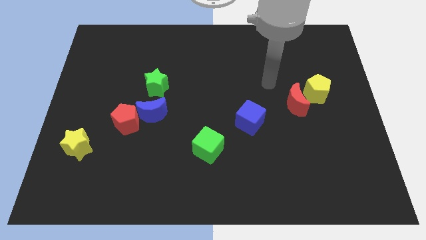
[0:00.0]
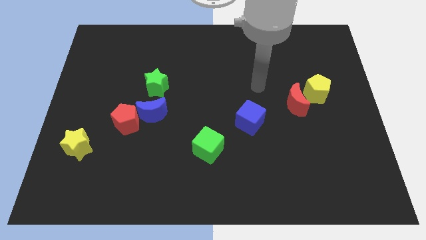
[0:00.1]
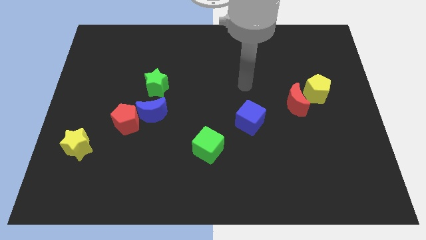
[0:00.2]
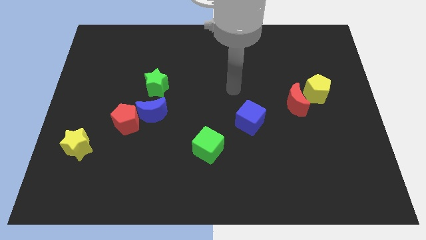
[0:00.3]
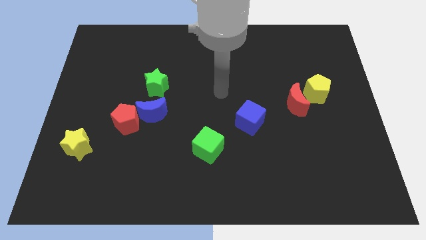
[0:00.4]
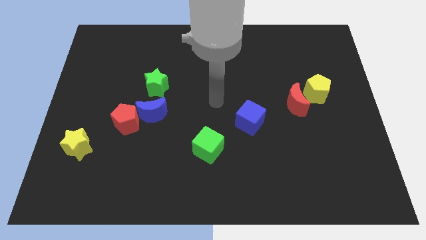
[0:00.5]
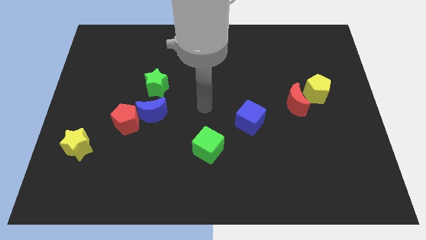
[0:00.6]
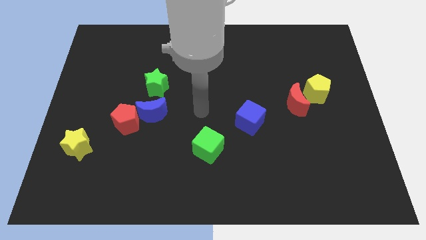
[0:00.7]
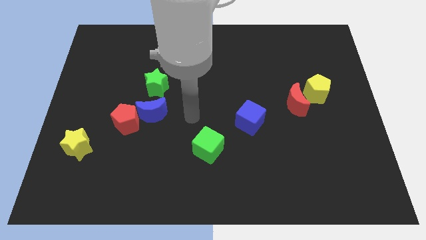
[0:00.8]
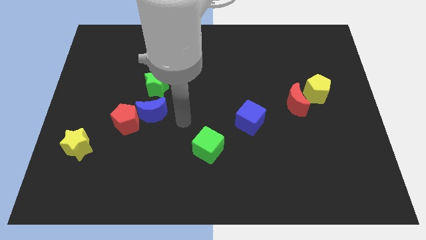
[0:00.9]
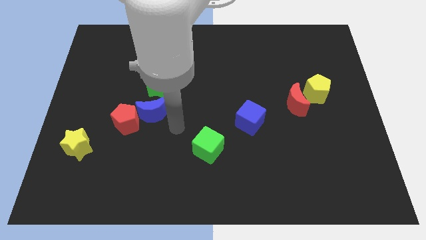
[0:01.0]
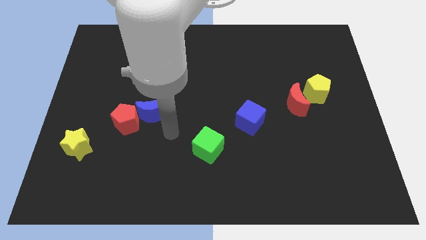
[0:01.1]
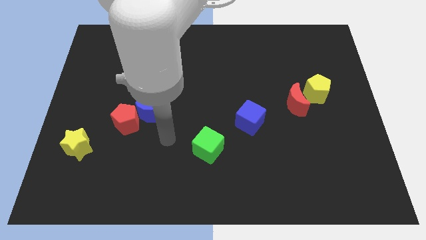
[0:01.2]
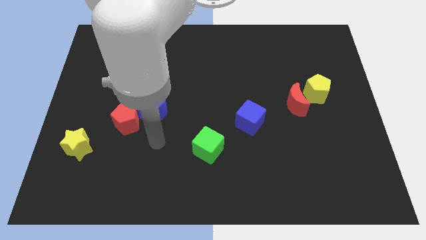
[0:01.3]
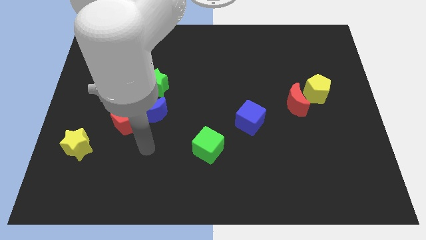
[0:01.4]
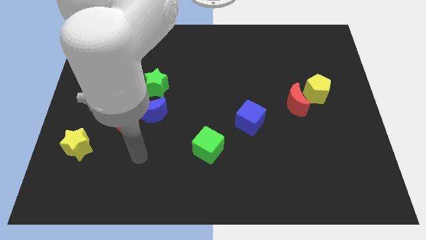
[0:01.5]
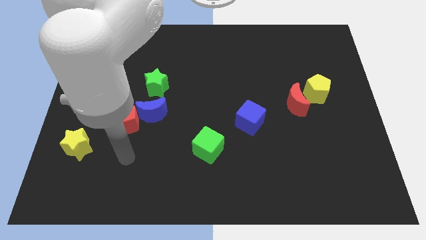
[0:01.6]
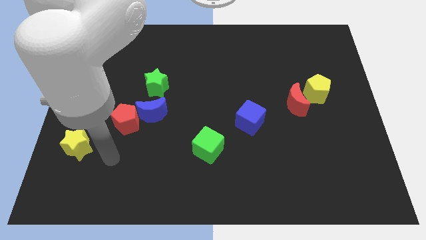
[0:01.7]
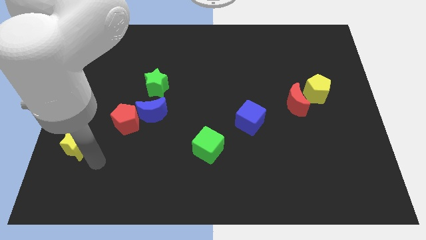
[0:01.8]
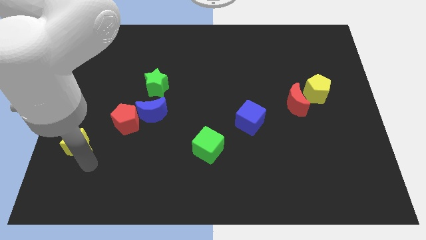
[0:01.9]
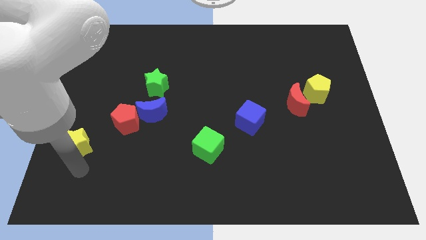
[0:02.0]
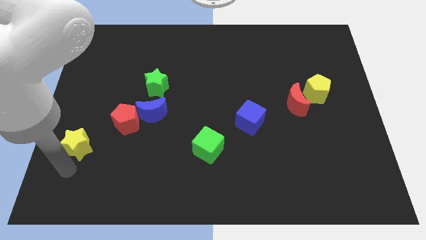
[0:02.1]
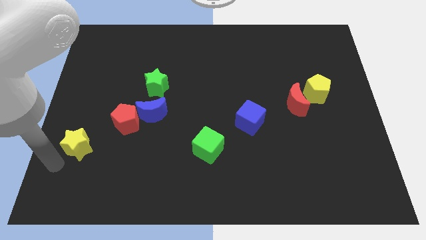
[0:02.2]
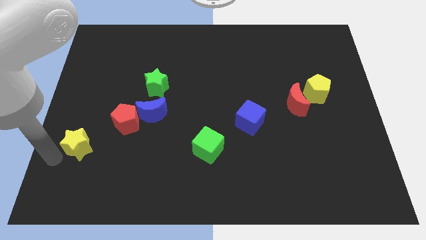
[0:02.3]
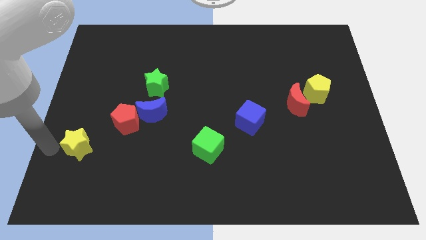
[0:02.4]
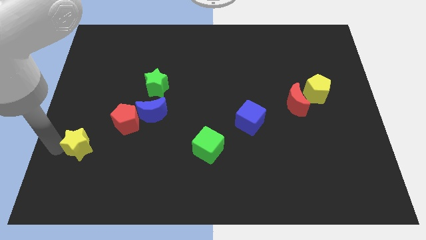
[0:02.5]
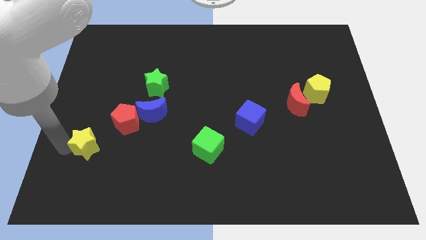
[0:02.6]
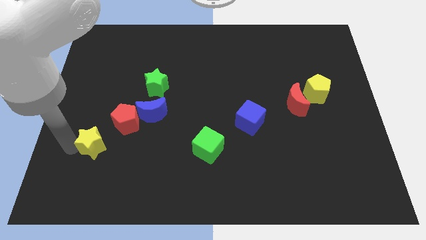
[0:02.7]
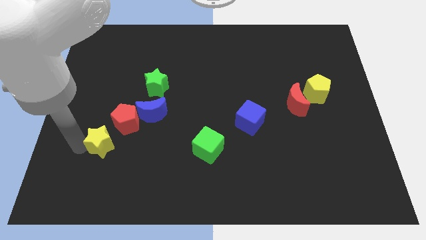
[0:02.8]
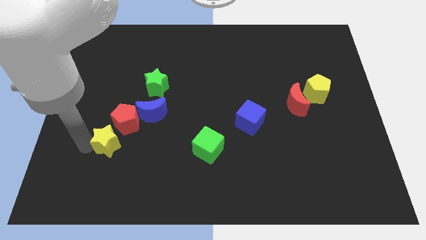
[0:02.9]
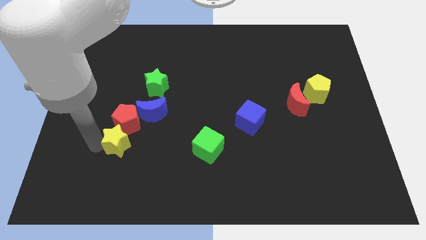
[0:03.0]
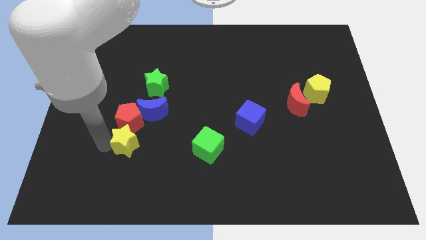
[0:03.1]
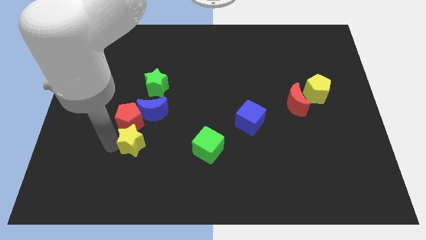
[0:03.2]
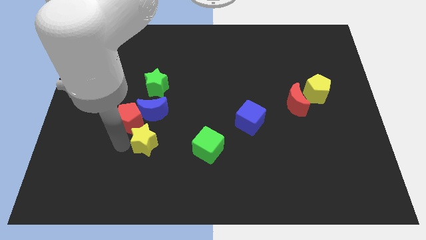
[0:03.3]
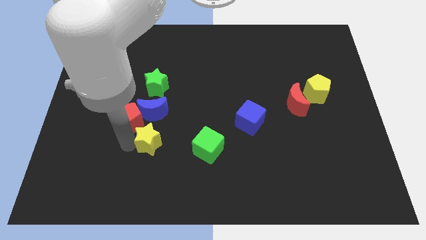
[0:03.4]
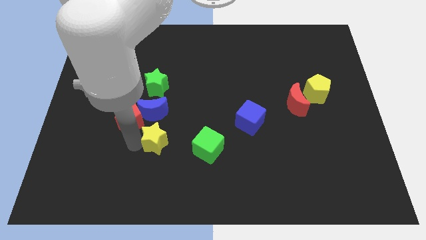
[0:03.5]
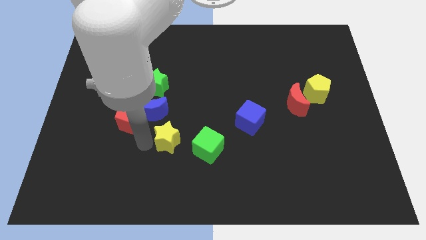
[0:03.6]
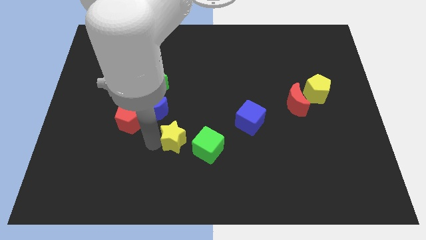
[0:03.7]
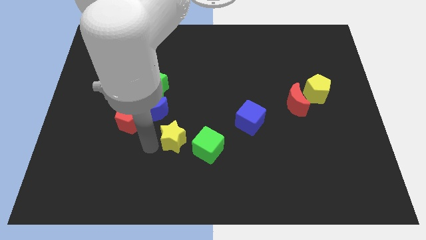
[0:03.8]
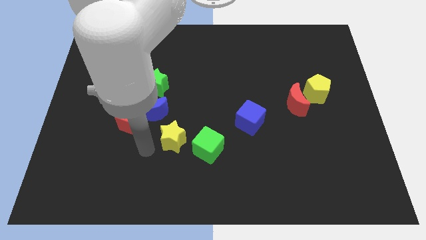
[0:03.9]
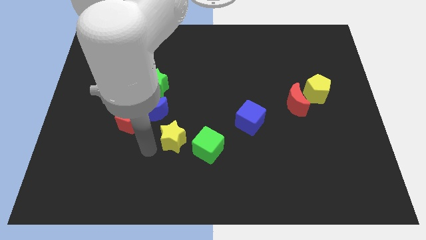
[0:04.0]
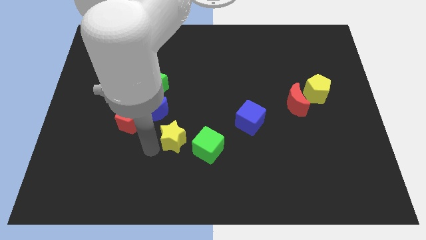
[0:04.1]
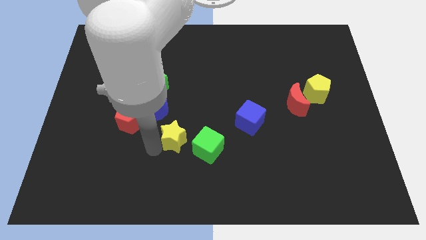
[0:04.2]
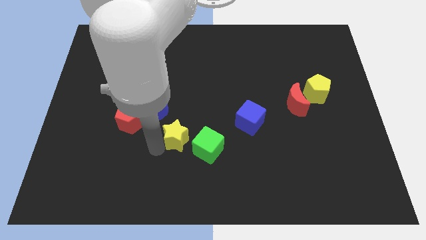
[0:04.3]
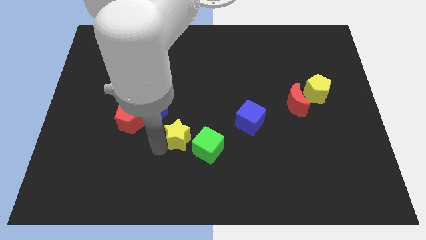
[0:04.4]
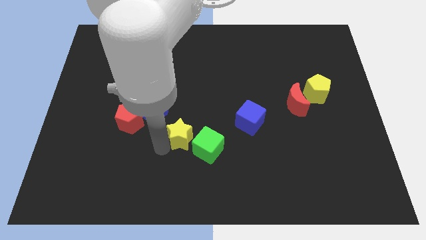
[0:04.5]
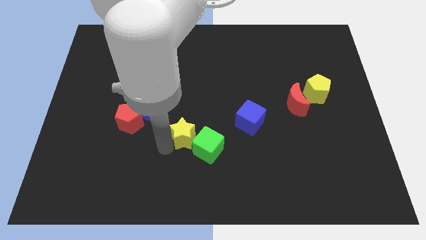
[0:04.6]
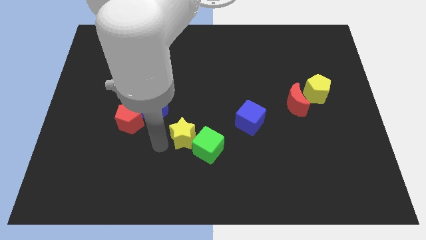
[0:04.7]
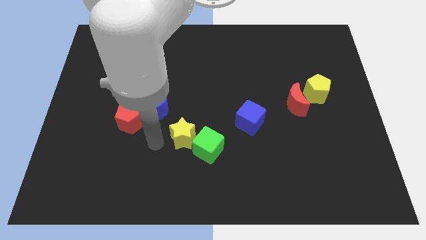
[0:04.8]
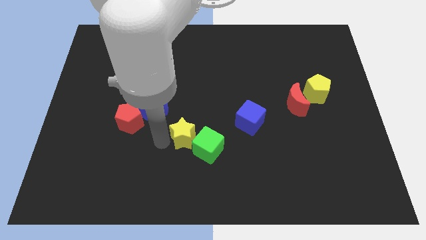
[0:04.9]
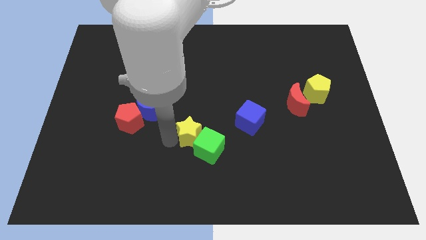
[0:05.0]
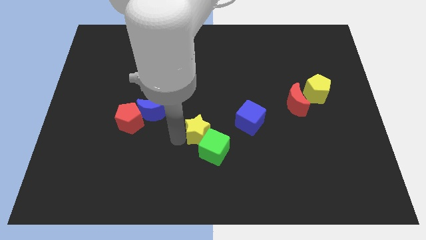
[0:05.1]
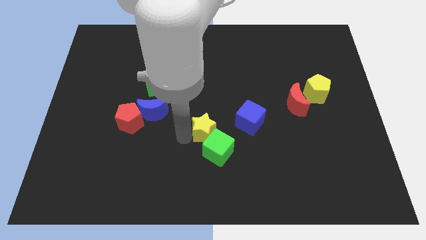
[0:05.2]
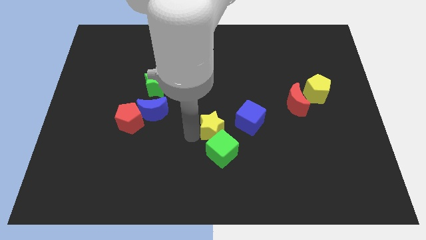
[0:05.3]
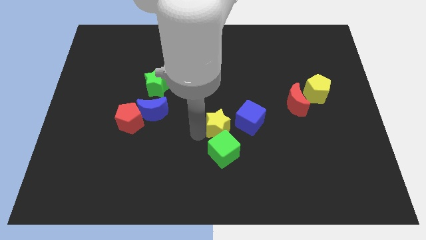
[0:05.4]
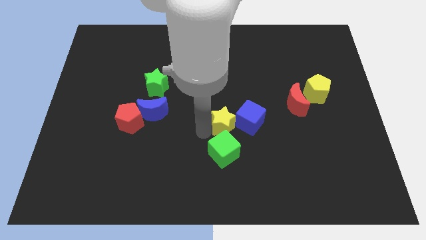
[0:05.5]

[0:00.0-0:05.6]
slide the yellow star to the blue cube

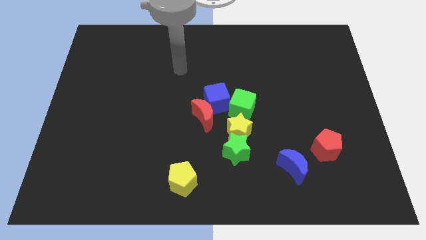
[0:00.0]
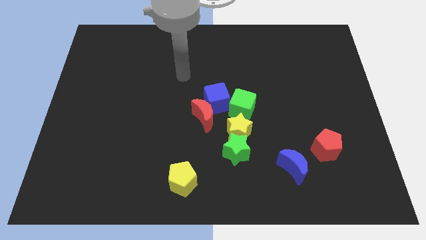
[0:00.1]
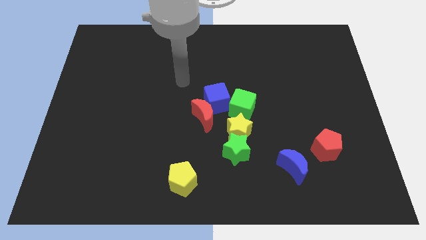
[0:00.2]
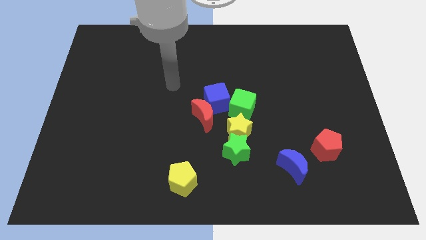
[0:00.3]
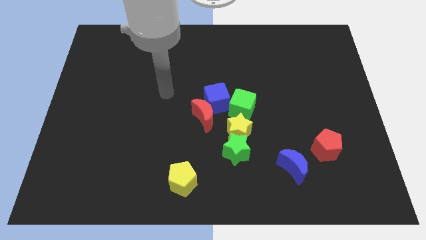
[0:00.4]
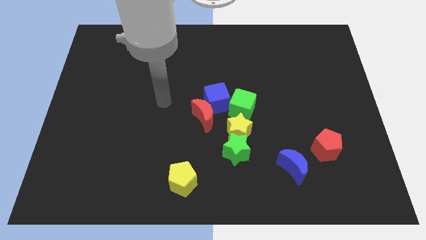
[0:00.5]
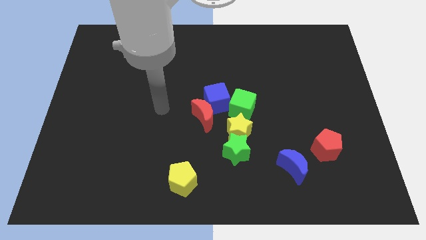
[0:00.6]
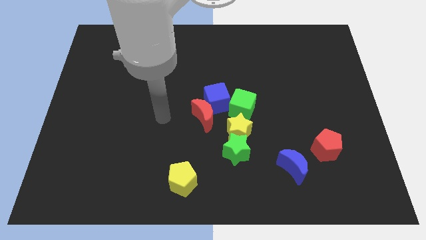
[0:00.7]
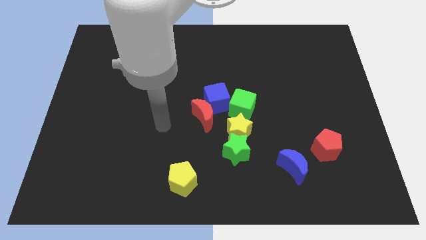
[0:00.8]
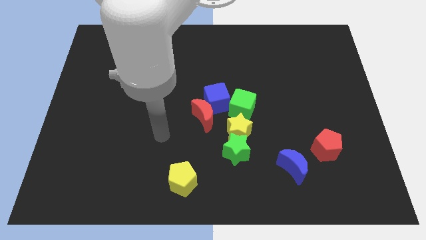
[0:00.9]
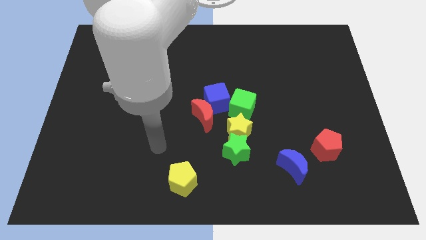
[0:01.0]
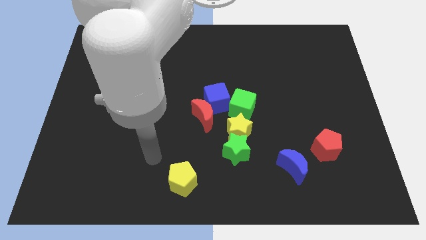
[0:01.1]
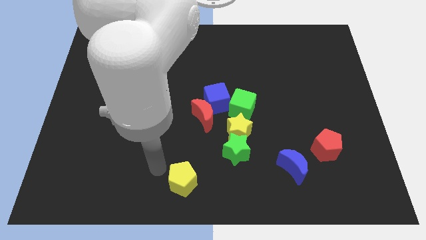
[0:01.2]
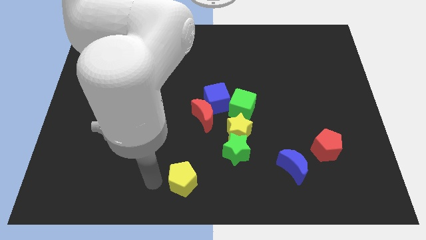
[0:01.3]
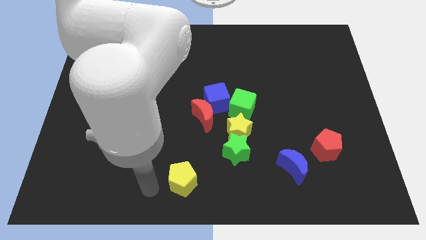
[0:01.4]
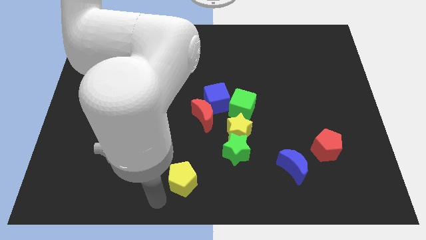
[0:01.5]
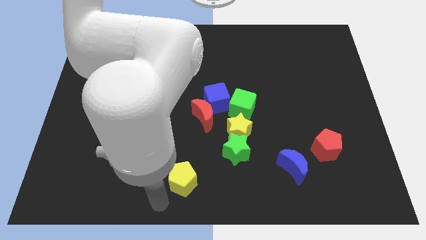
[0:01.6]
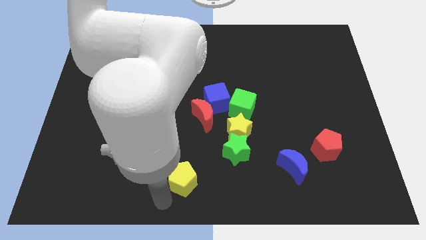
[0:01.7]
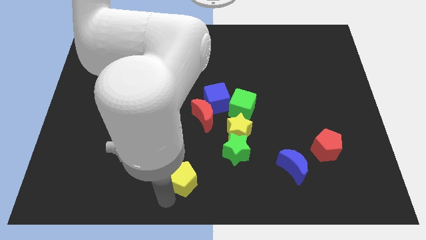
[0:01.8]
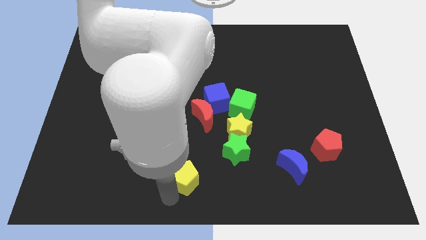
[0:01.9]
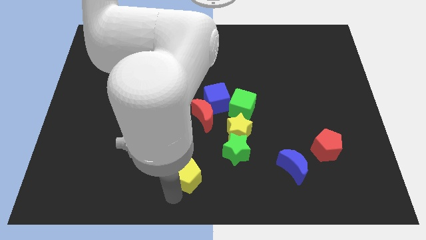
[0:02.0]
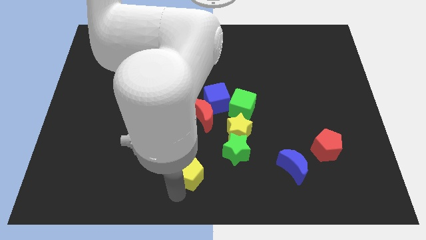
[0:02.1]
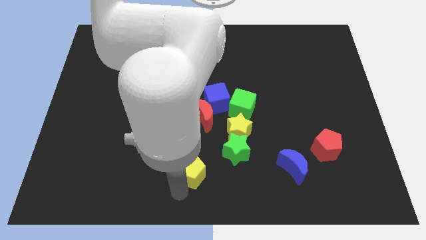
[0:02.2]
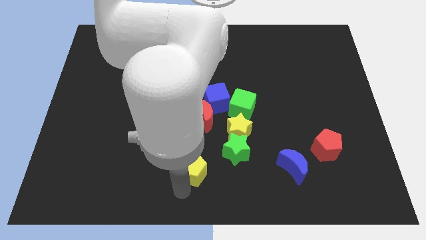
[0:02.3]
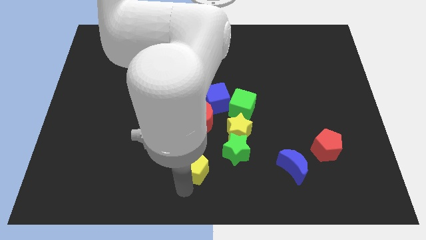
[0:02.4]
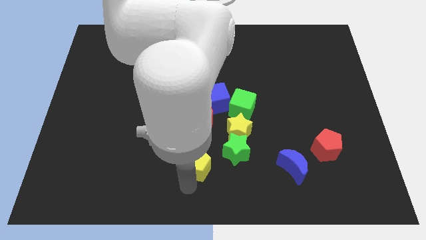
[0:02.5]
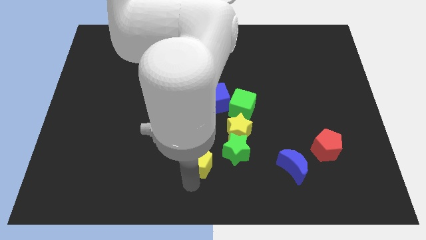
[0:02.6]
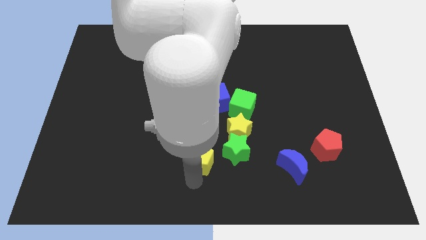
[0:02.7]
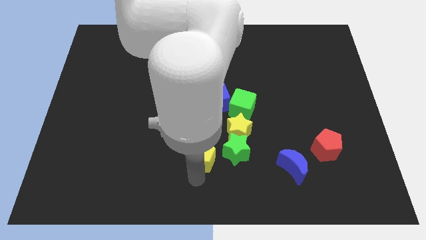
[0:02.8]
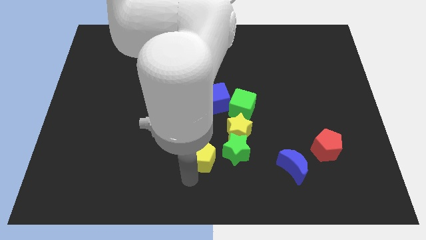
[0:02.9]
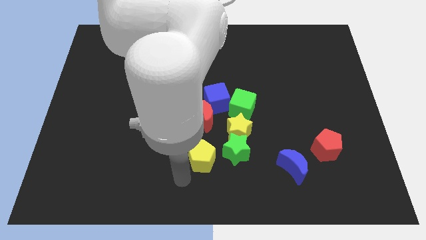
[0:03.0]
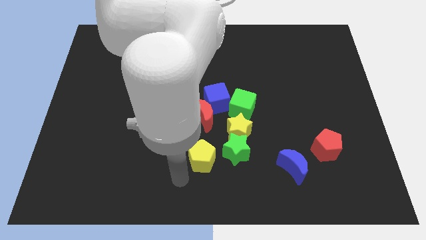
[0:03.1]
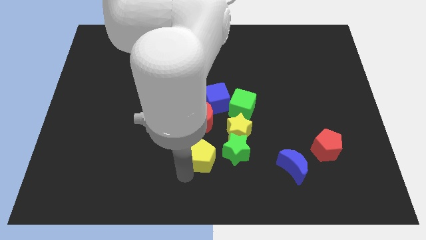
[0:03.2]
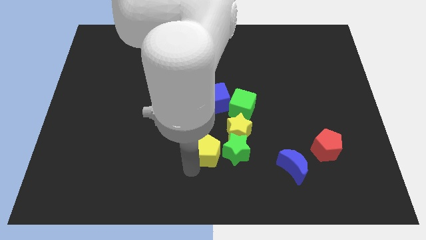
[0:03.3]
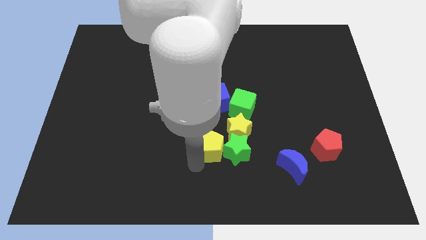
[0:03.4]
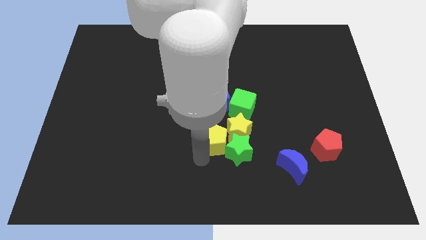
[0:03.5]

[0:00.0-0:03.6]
move the yellow pentagon towards the yellow star
